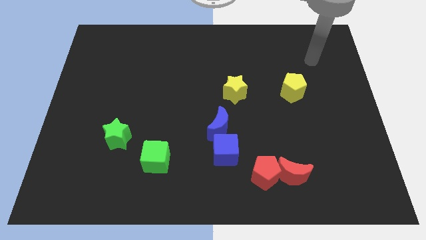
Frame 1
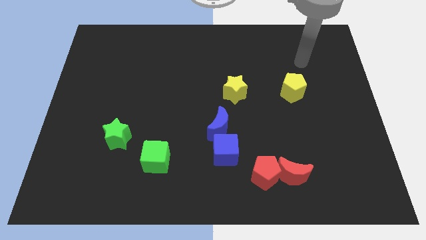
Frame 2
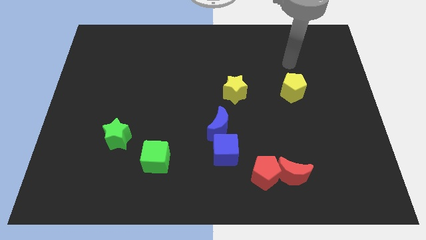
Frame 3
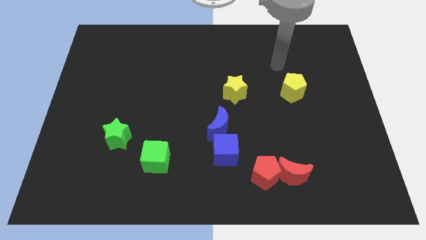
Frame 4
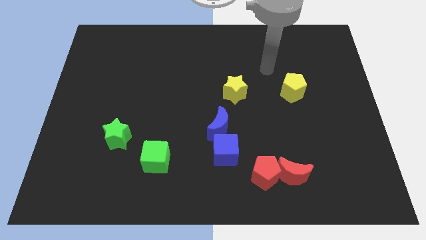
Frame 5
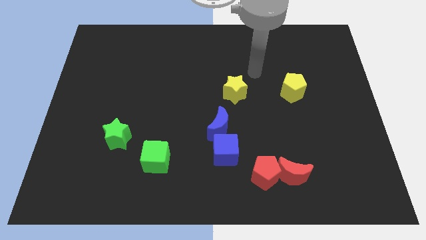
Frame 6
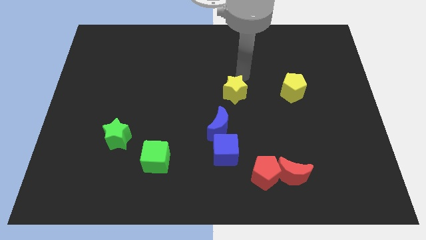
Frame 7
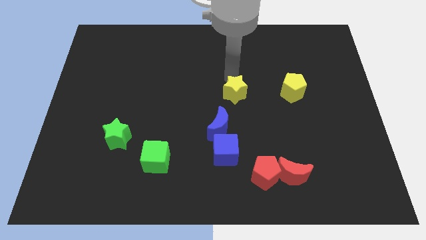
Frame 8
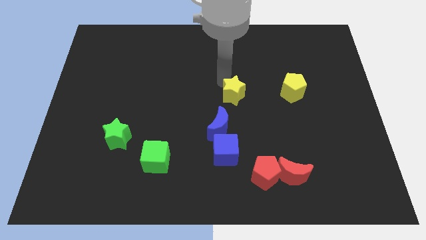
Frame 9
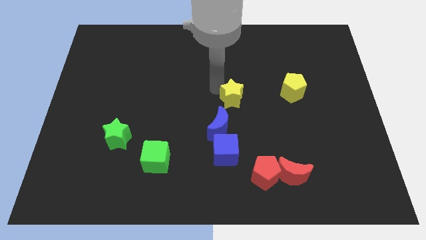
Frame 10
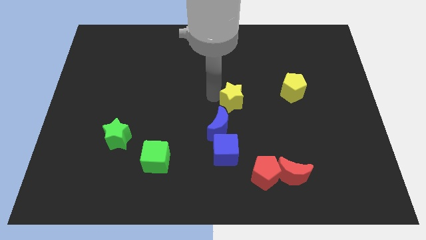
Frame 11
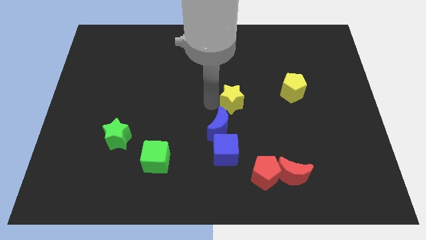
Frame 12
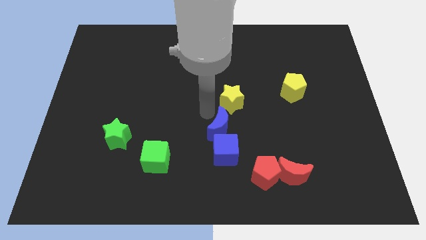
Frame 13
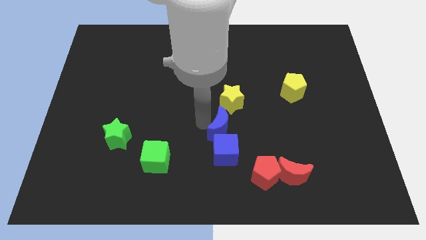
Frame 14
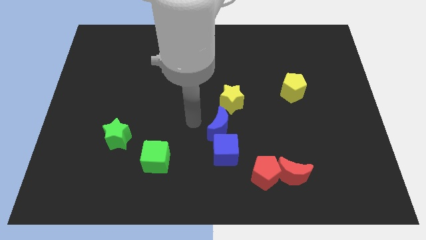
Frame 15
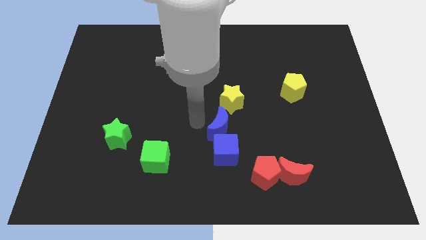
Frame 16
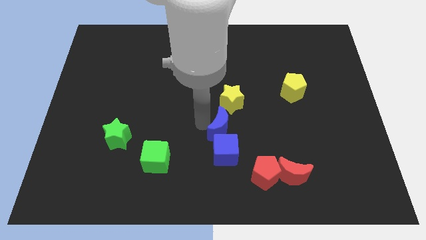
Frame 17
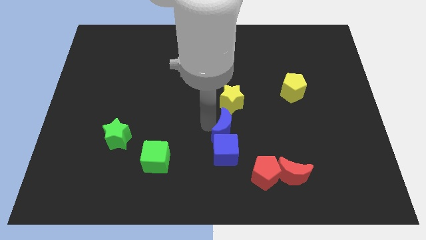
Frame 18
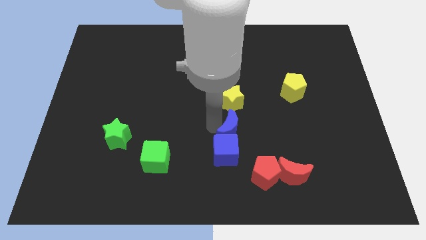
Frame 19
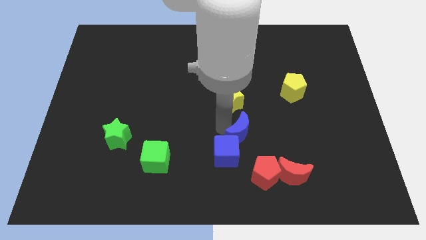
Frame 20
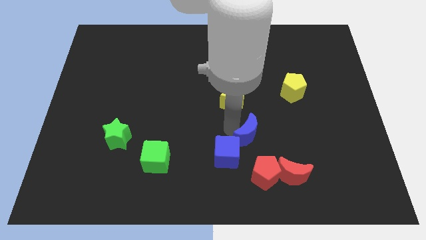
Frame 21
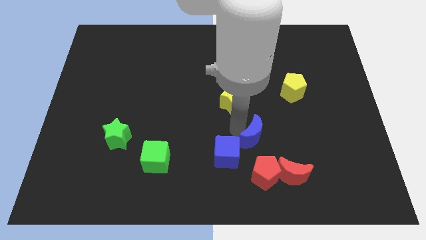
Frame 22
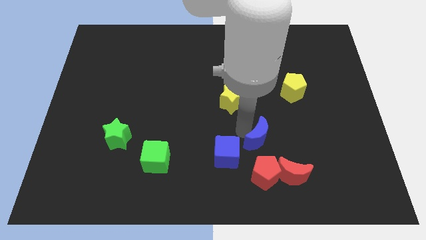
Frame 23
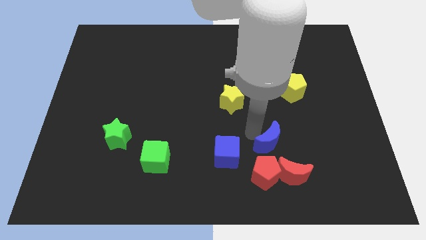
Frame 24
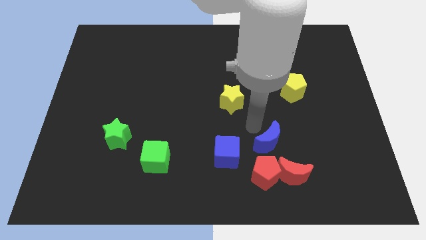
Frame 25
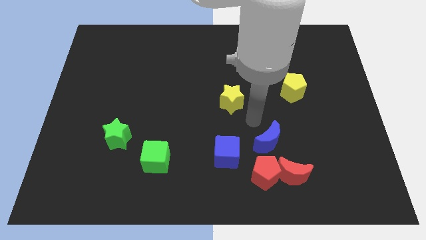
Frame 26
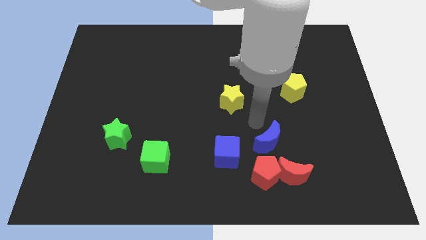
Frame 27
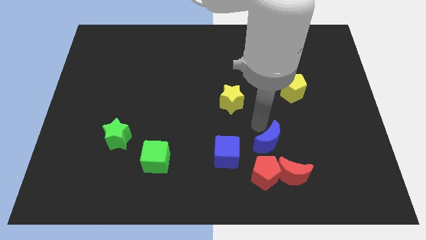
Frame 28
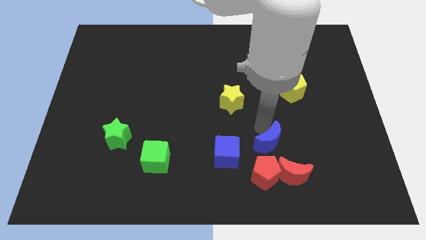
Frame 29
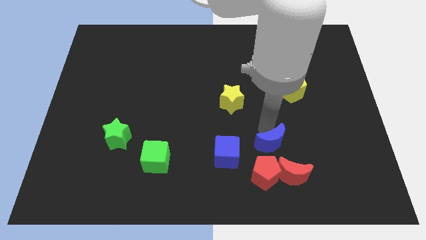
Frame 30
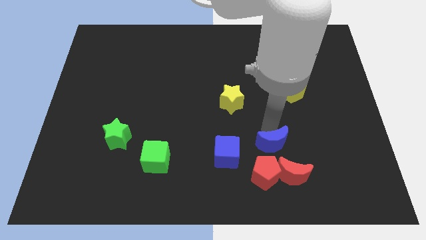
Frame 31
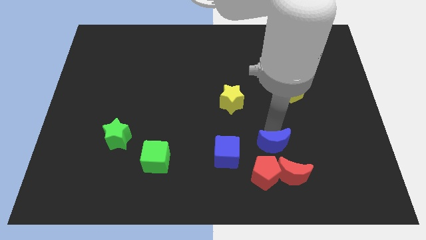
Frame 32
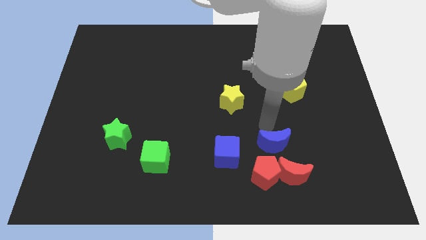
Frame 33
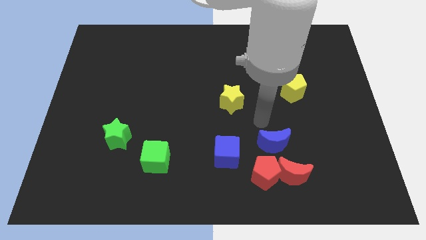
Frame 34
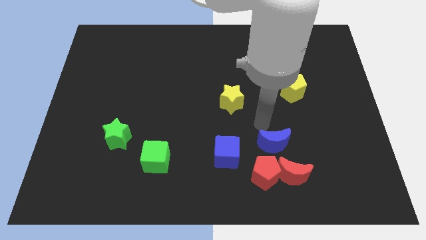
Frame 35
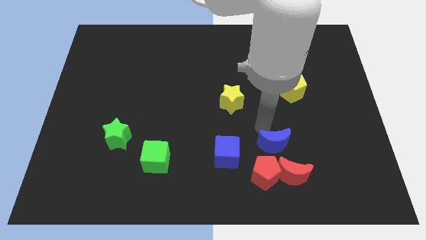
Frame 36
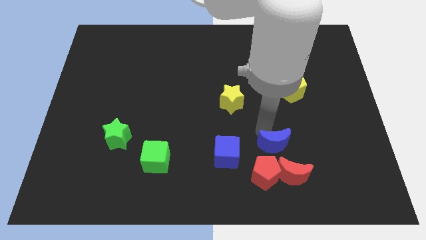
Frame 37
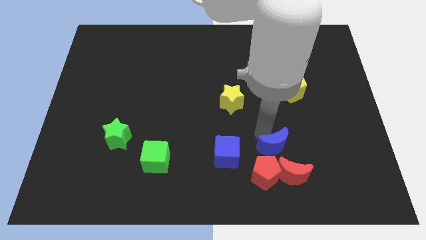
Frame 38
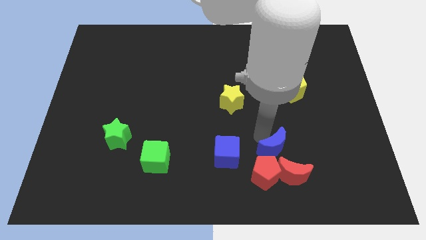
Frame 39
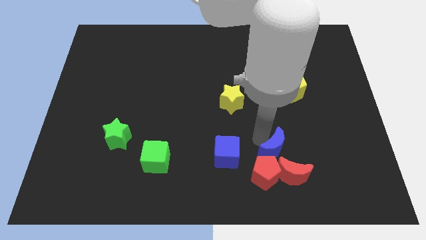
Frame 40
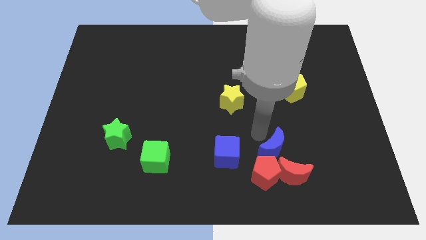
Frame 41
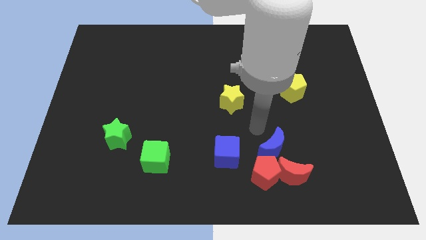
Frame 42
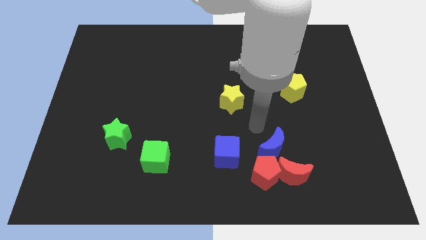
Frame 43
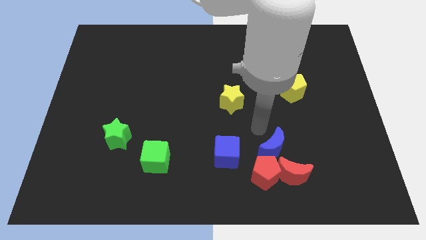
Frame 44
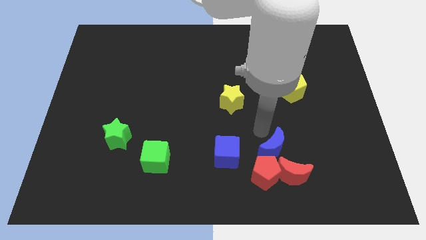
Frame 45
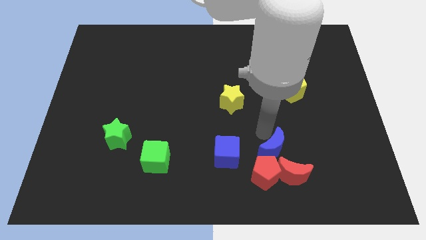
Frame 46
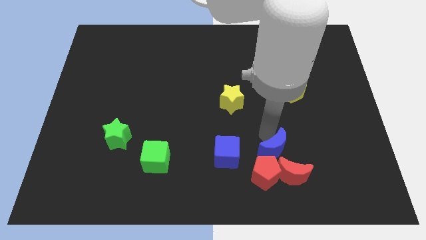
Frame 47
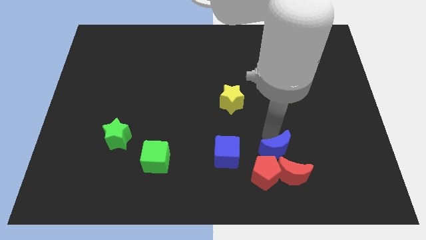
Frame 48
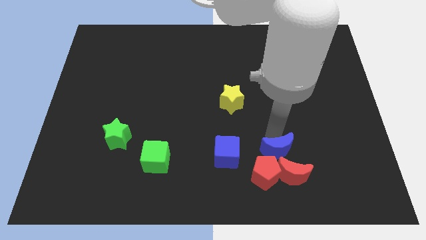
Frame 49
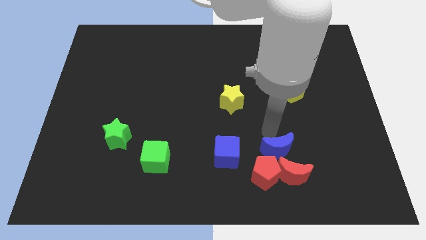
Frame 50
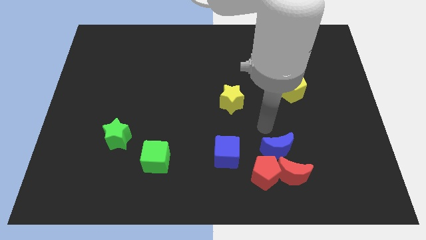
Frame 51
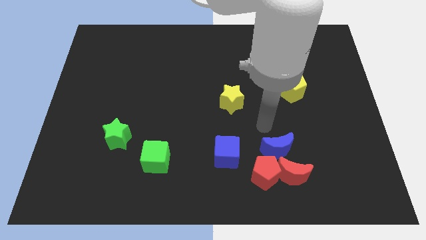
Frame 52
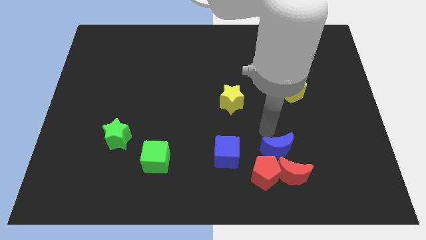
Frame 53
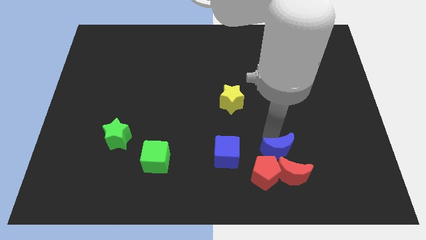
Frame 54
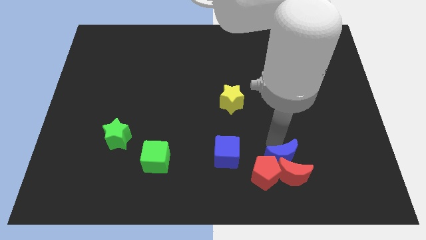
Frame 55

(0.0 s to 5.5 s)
push the blue moon towards the red moon

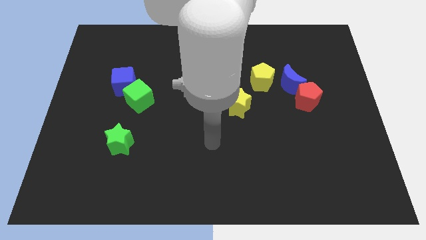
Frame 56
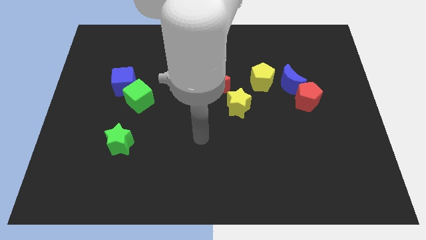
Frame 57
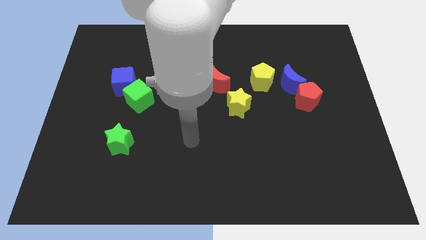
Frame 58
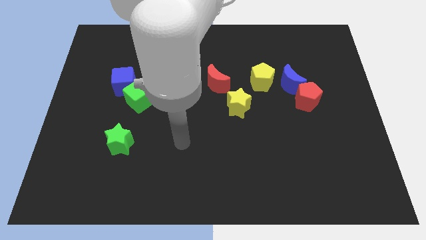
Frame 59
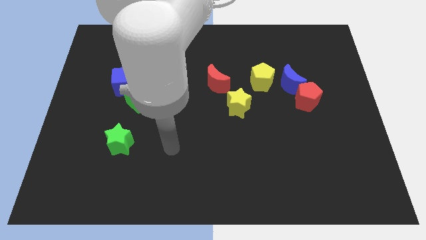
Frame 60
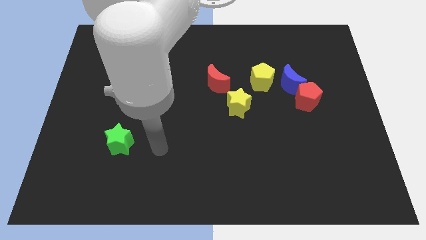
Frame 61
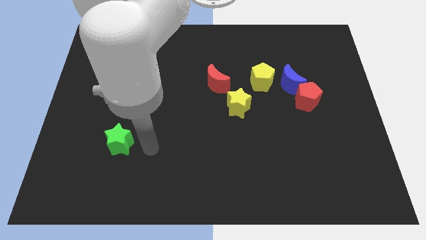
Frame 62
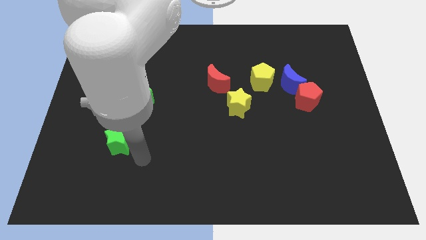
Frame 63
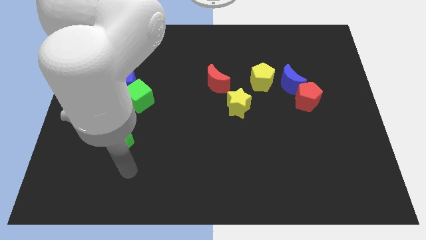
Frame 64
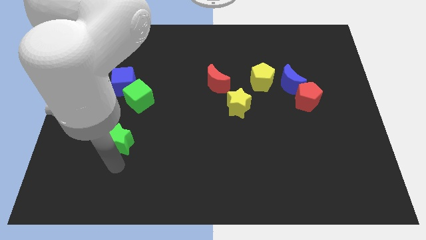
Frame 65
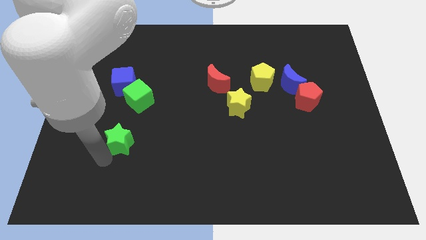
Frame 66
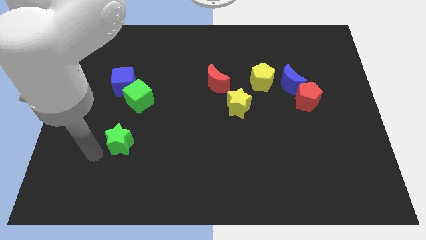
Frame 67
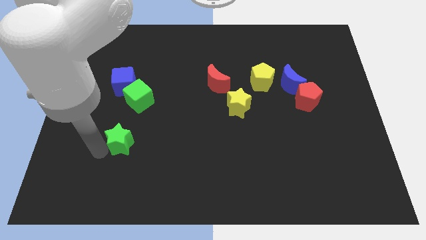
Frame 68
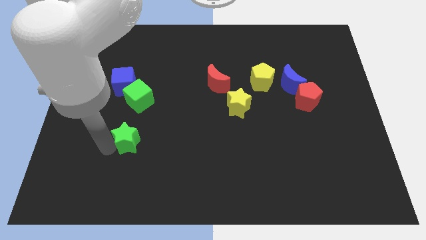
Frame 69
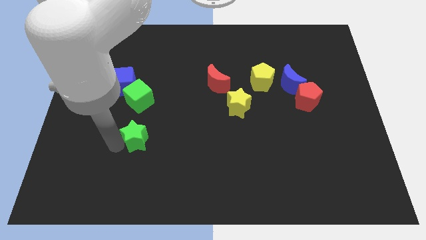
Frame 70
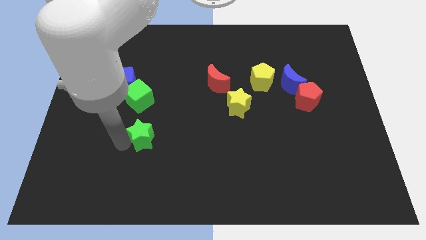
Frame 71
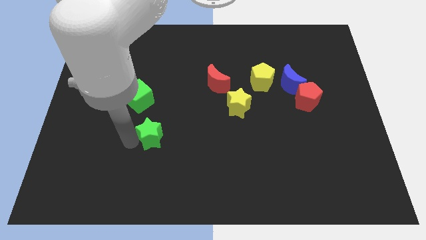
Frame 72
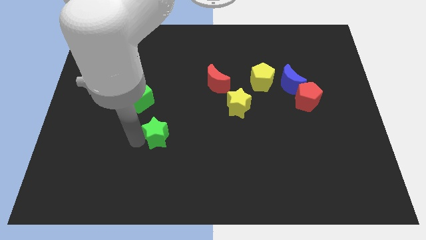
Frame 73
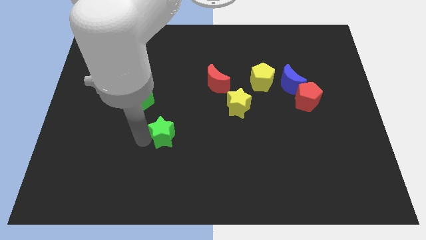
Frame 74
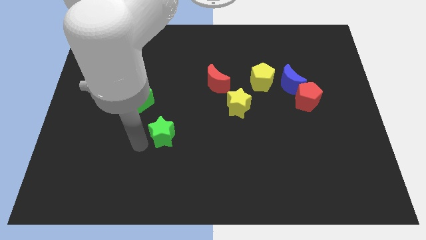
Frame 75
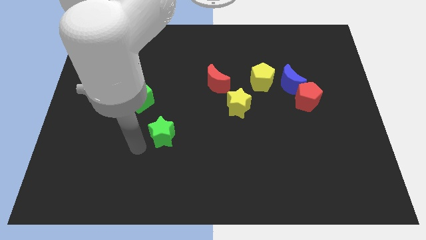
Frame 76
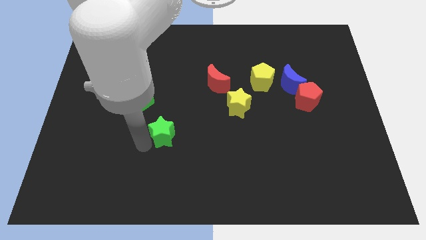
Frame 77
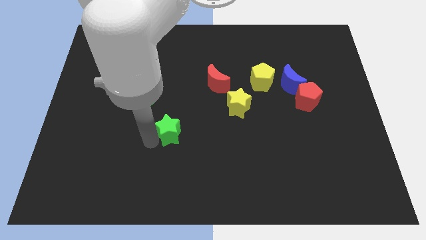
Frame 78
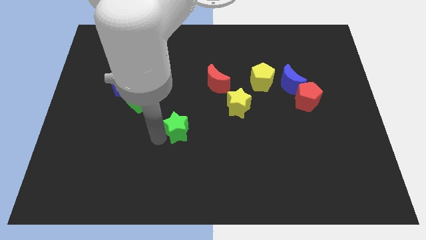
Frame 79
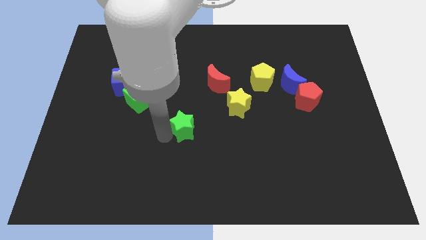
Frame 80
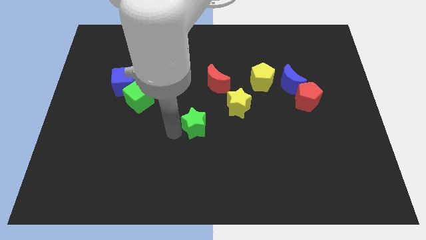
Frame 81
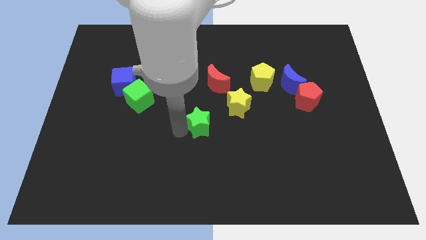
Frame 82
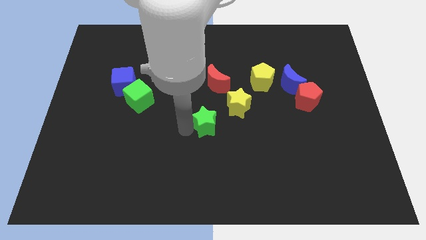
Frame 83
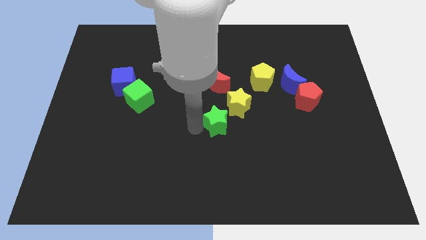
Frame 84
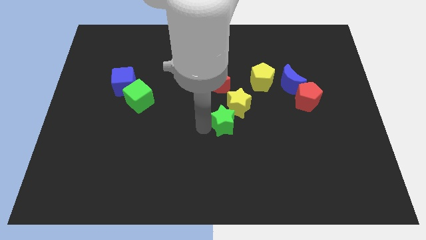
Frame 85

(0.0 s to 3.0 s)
move the green star towards the yellow star
